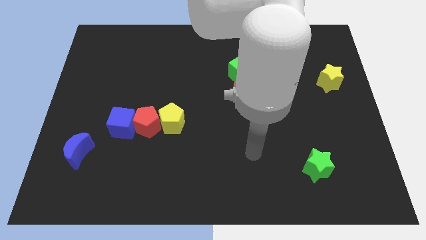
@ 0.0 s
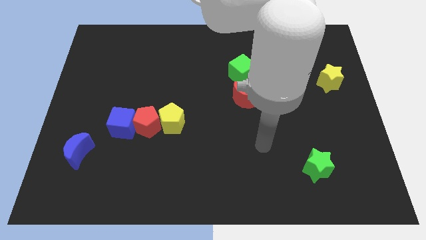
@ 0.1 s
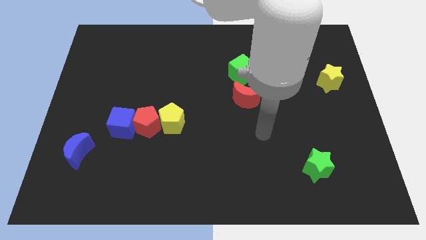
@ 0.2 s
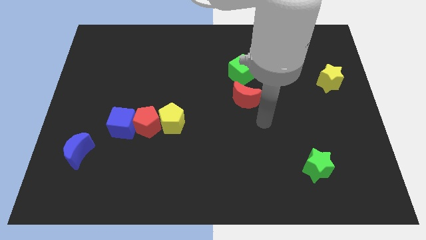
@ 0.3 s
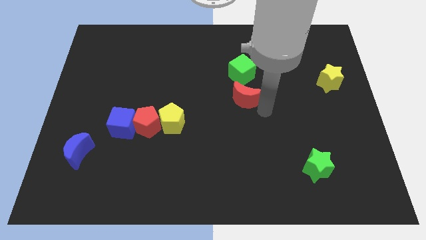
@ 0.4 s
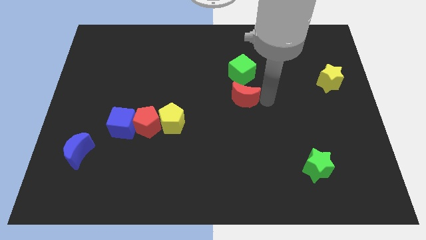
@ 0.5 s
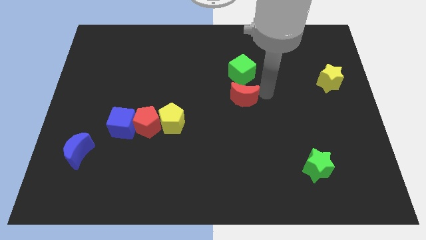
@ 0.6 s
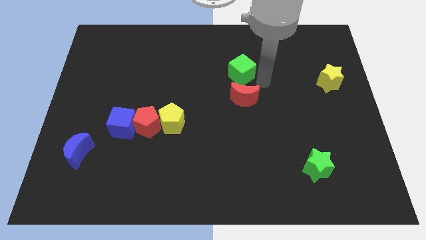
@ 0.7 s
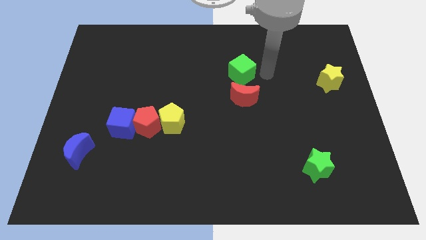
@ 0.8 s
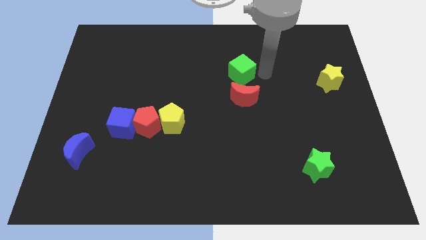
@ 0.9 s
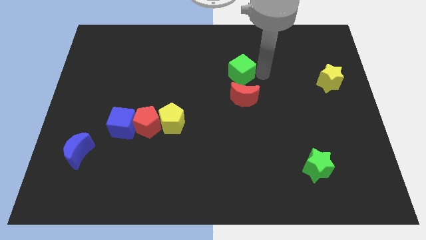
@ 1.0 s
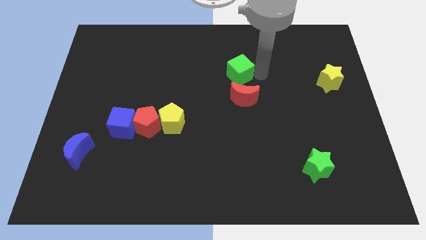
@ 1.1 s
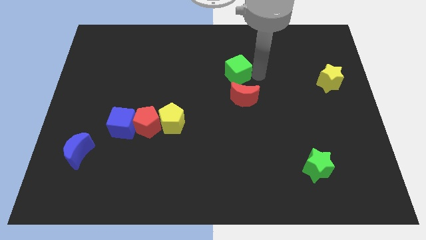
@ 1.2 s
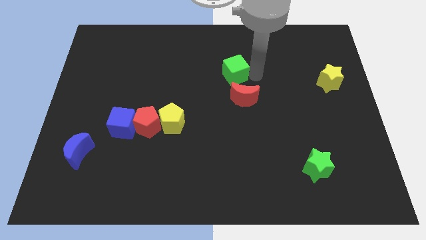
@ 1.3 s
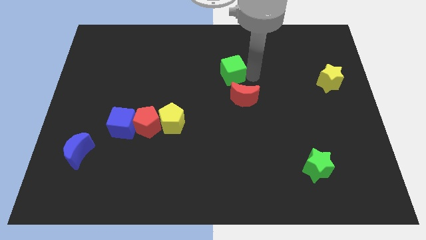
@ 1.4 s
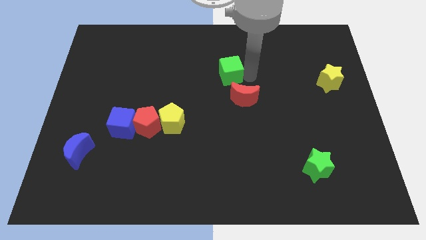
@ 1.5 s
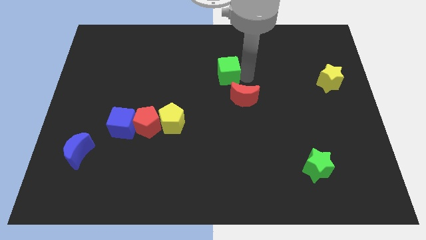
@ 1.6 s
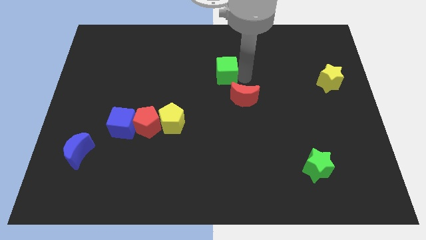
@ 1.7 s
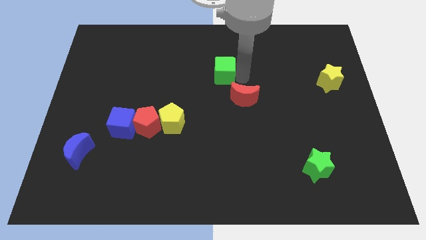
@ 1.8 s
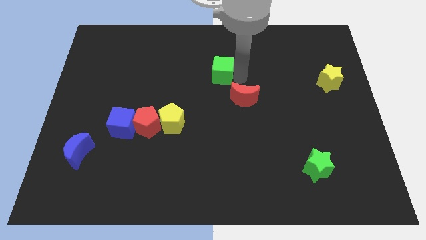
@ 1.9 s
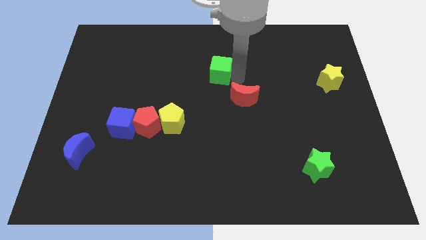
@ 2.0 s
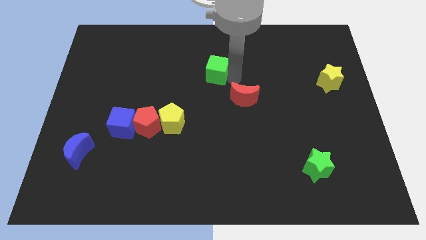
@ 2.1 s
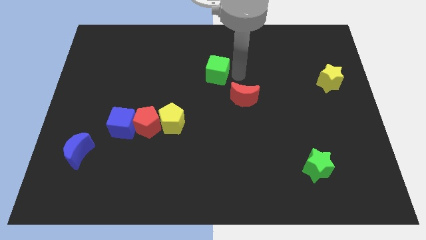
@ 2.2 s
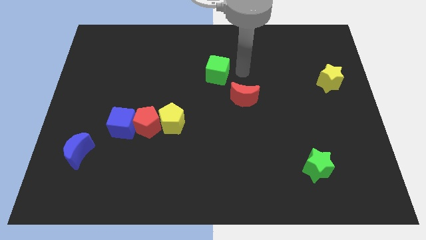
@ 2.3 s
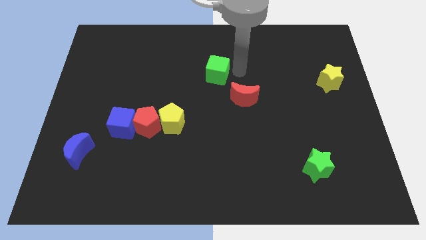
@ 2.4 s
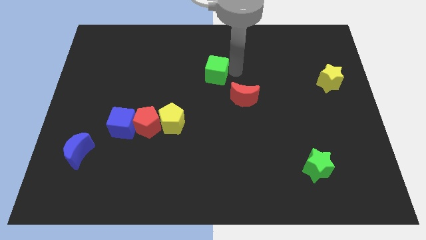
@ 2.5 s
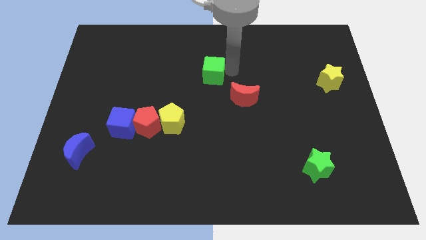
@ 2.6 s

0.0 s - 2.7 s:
push the green cube to the left a bit

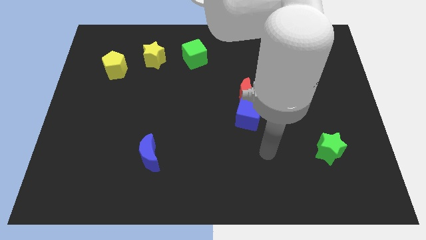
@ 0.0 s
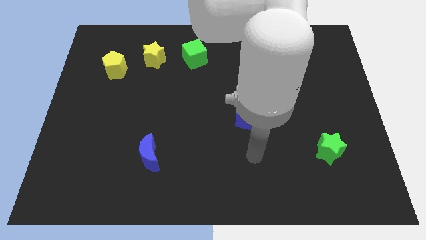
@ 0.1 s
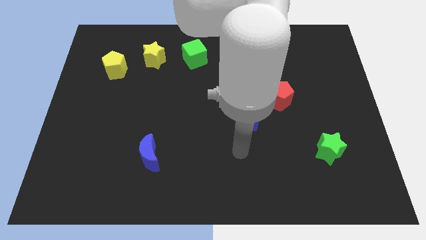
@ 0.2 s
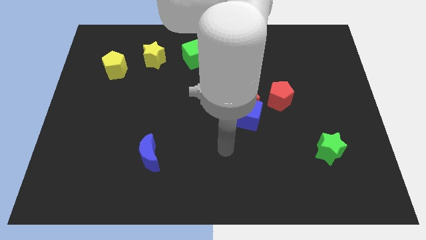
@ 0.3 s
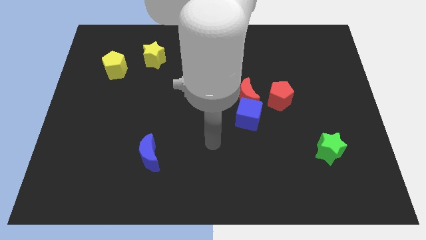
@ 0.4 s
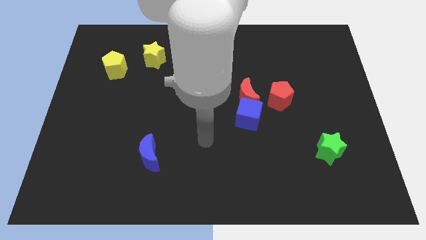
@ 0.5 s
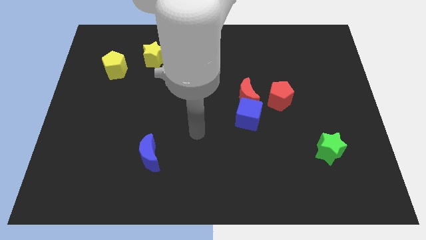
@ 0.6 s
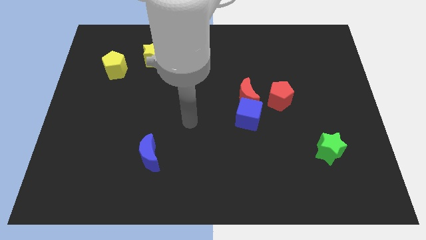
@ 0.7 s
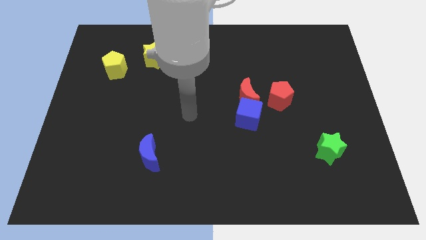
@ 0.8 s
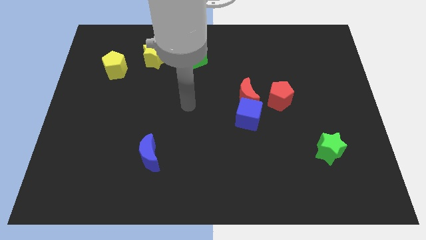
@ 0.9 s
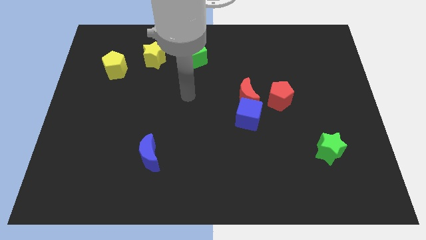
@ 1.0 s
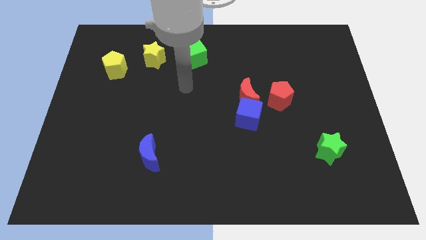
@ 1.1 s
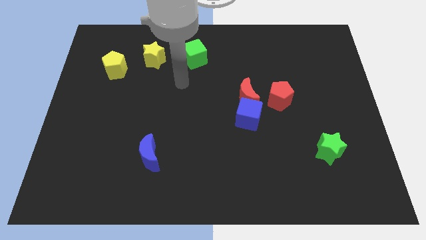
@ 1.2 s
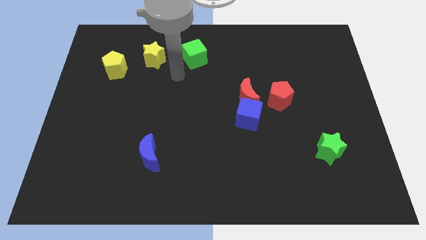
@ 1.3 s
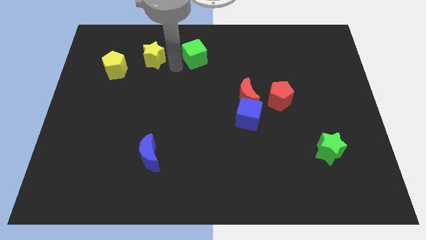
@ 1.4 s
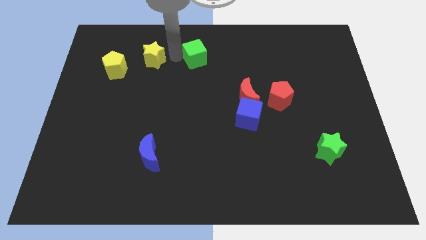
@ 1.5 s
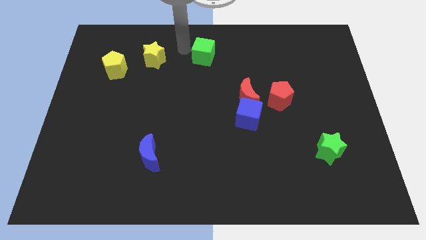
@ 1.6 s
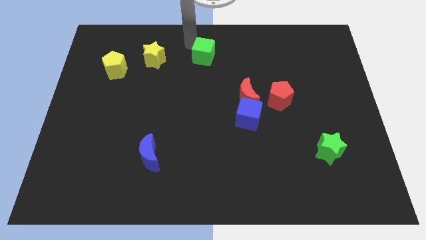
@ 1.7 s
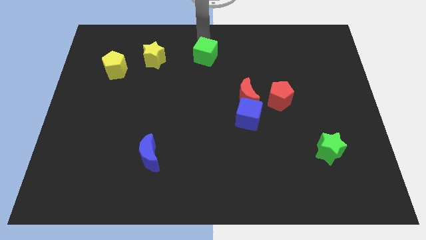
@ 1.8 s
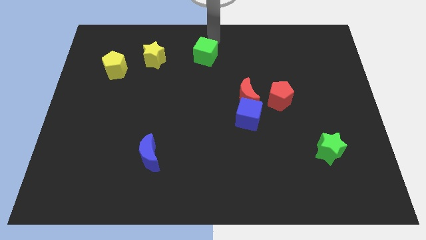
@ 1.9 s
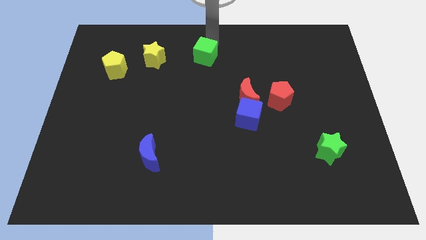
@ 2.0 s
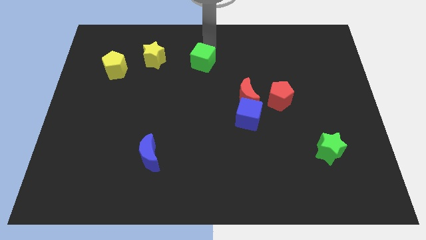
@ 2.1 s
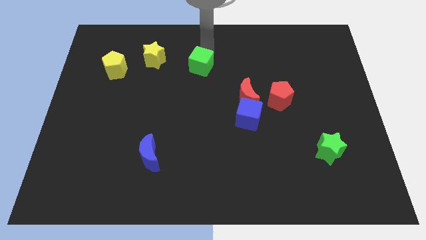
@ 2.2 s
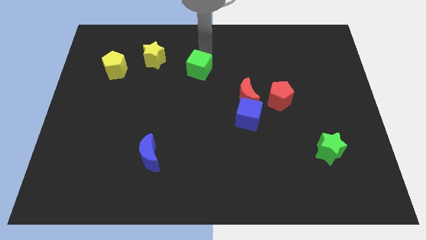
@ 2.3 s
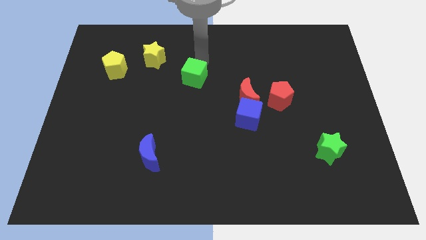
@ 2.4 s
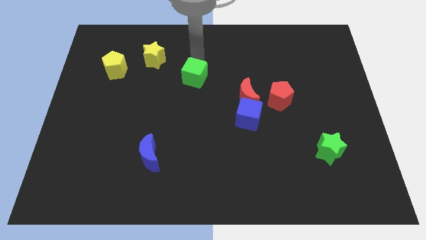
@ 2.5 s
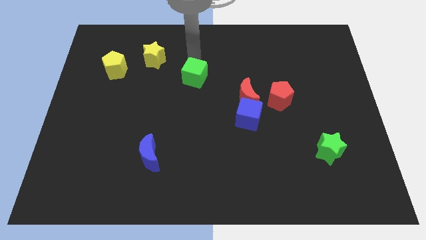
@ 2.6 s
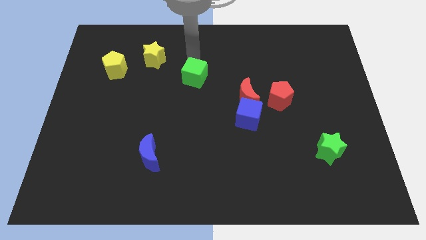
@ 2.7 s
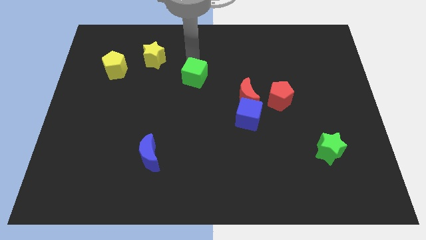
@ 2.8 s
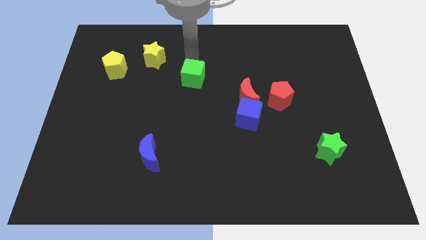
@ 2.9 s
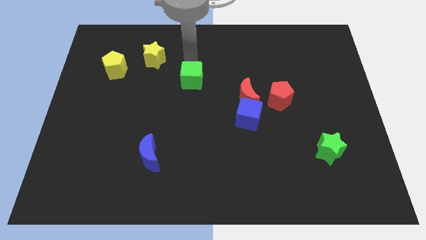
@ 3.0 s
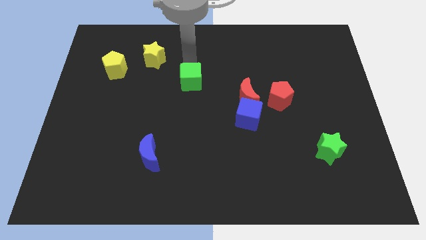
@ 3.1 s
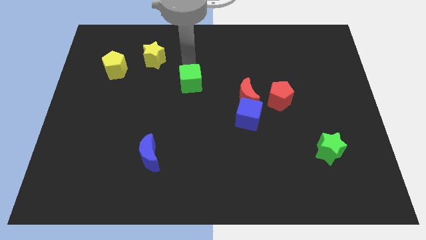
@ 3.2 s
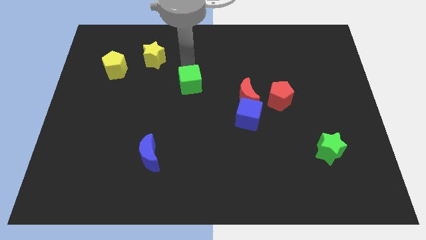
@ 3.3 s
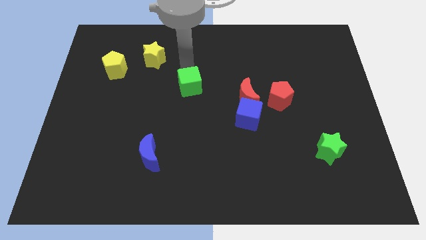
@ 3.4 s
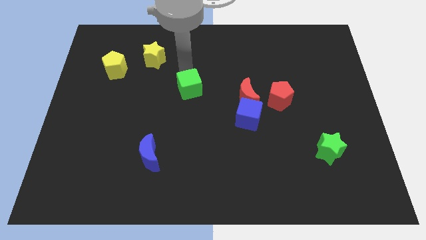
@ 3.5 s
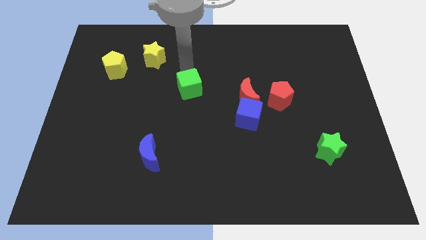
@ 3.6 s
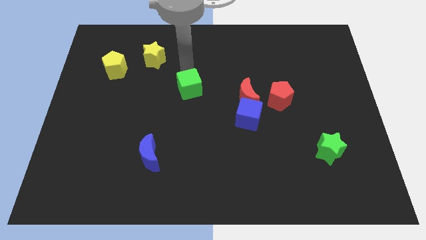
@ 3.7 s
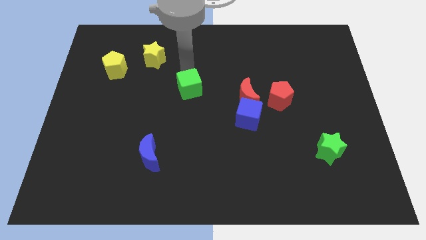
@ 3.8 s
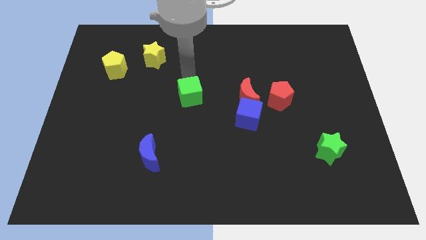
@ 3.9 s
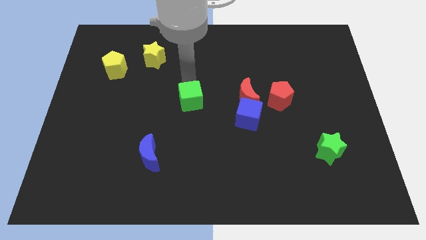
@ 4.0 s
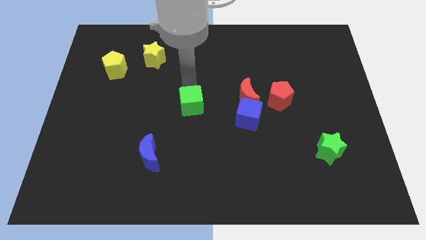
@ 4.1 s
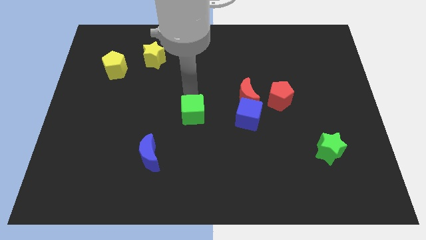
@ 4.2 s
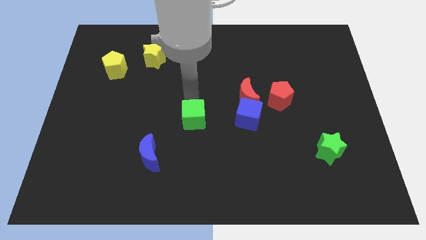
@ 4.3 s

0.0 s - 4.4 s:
move the green cube down

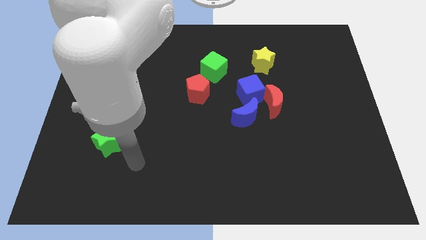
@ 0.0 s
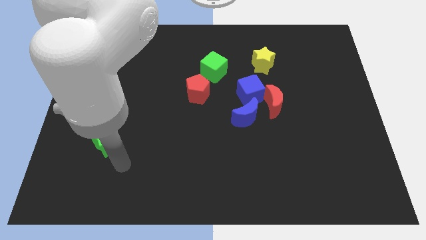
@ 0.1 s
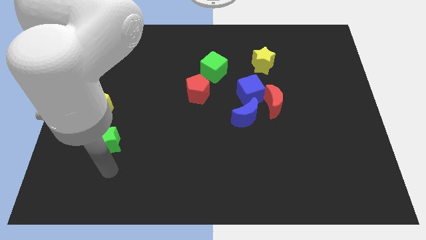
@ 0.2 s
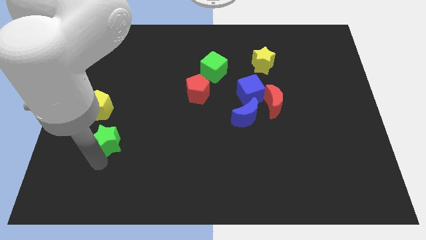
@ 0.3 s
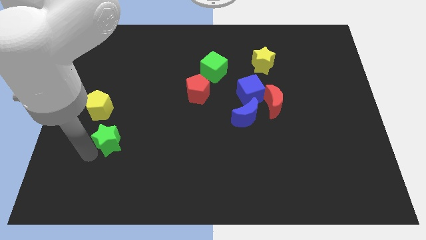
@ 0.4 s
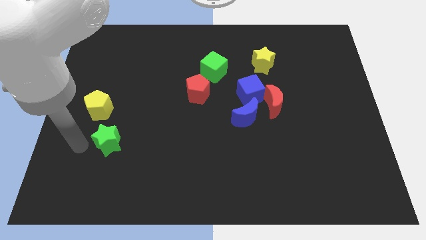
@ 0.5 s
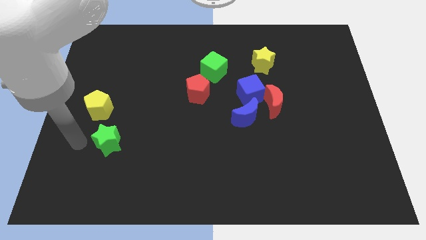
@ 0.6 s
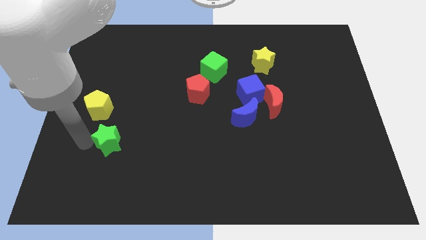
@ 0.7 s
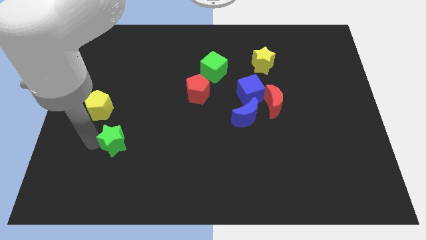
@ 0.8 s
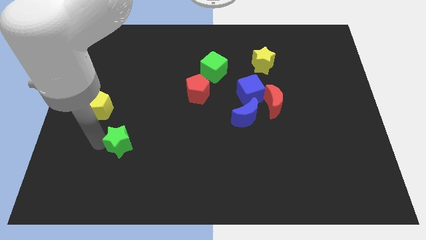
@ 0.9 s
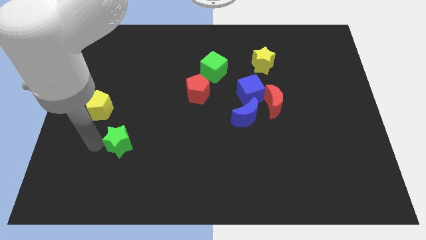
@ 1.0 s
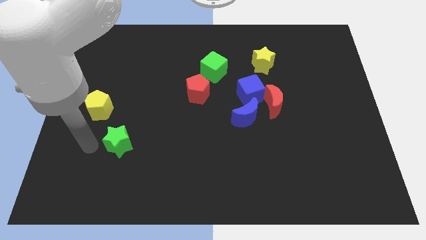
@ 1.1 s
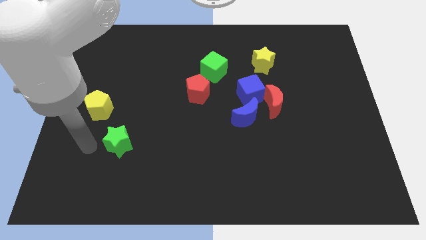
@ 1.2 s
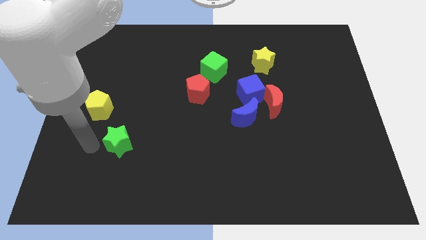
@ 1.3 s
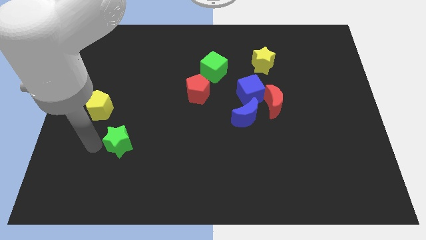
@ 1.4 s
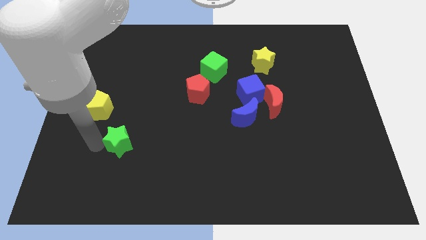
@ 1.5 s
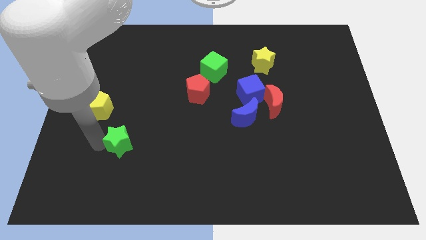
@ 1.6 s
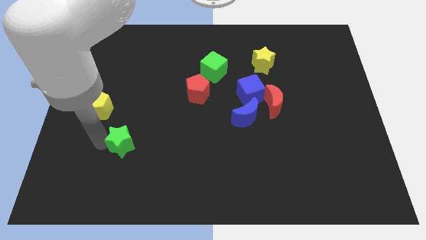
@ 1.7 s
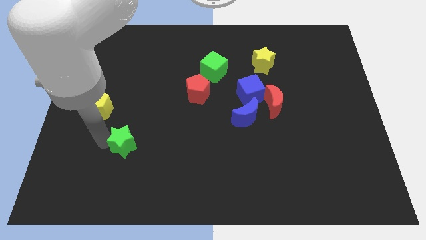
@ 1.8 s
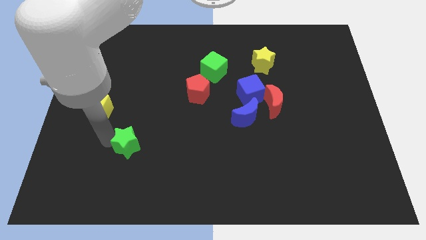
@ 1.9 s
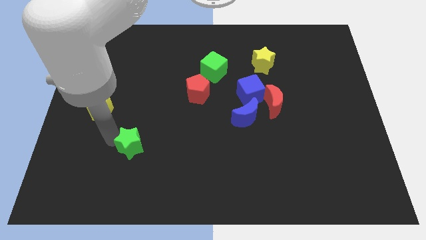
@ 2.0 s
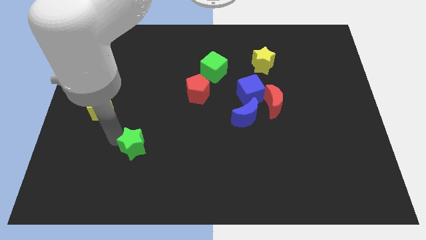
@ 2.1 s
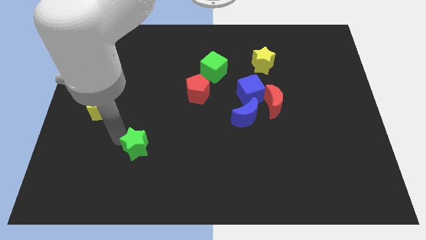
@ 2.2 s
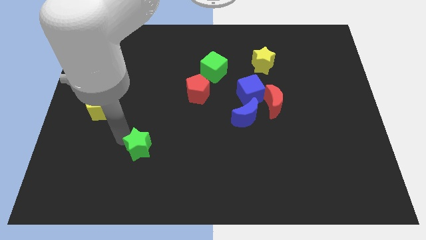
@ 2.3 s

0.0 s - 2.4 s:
slide the green star a bit to the right
